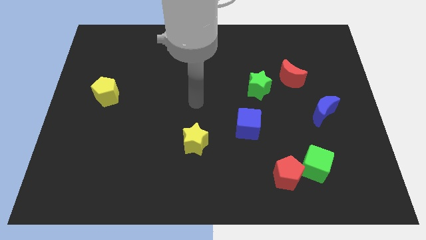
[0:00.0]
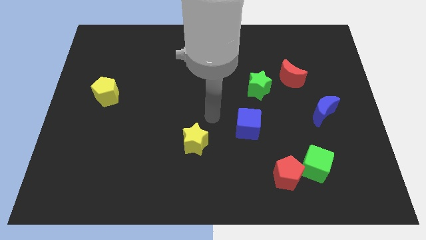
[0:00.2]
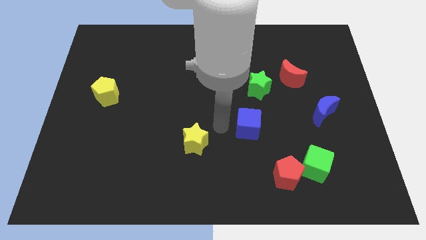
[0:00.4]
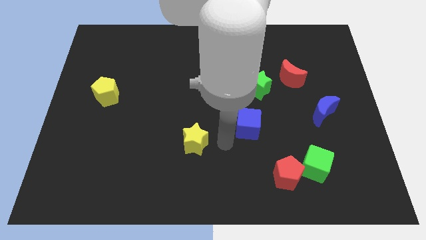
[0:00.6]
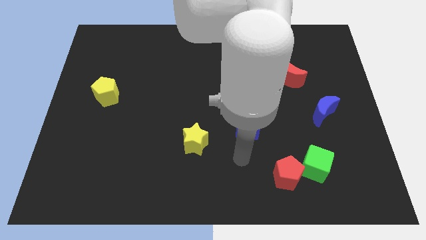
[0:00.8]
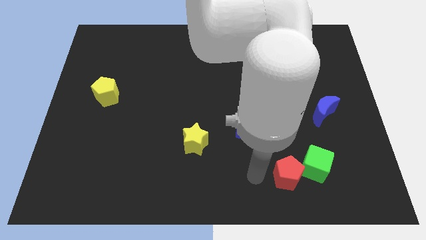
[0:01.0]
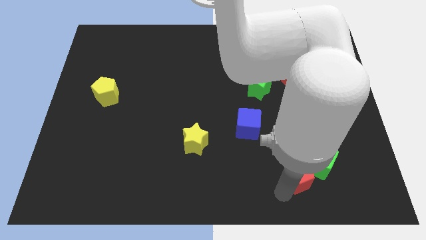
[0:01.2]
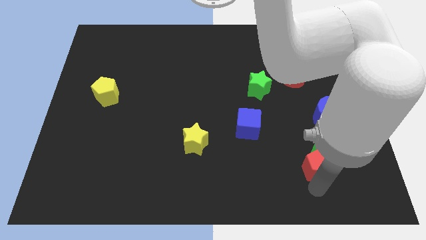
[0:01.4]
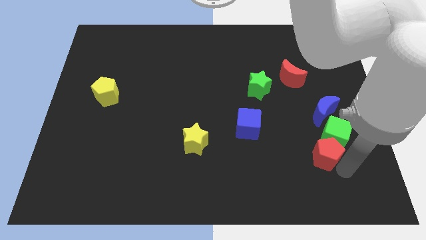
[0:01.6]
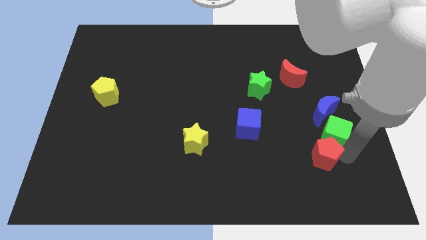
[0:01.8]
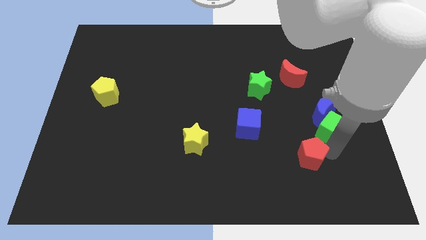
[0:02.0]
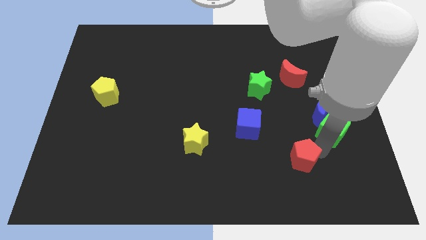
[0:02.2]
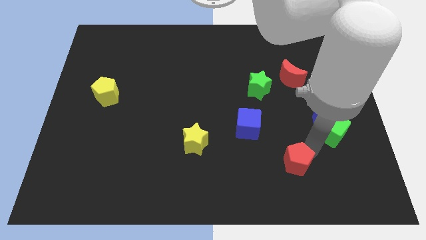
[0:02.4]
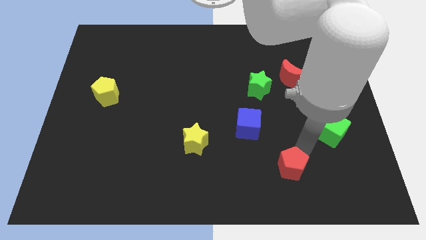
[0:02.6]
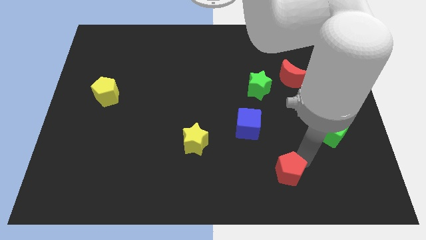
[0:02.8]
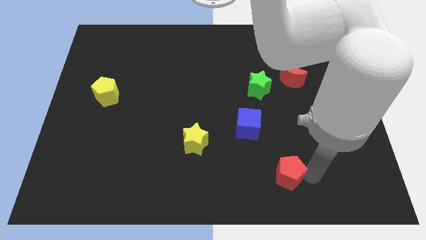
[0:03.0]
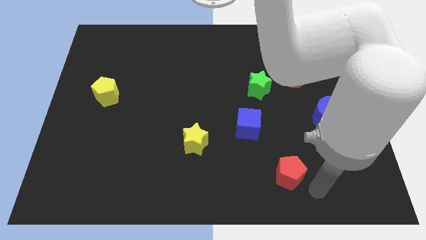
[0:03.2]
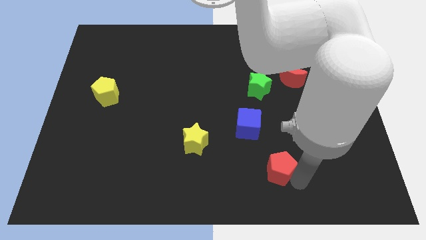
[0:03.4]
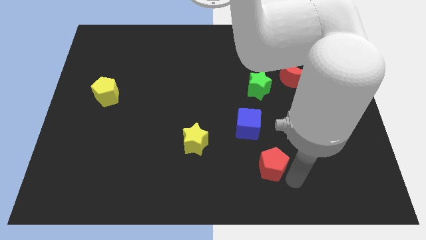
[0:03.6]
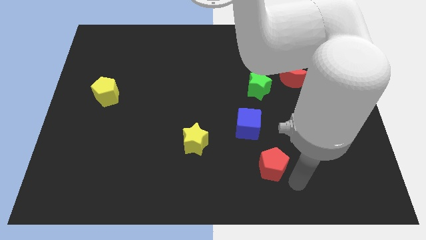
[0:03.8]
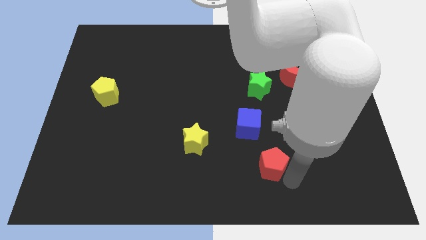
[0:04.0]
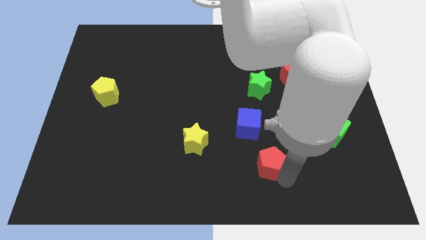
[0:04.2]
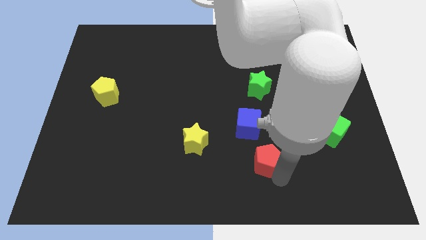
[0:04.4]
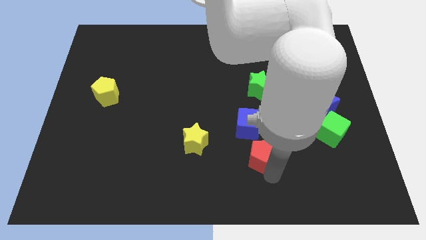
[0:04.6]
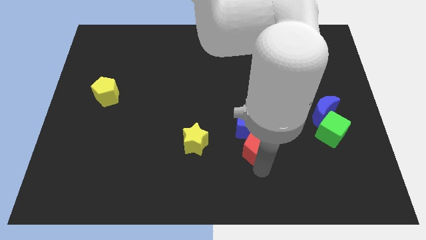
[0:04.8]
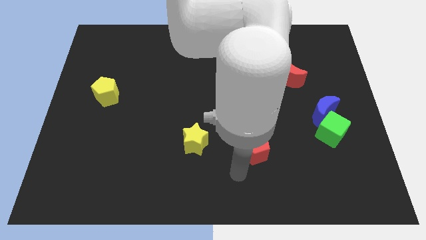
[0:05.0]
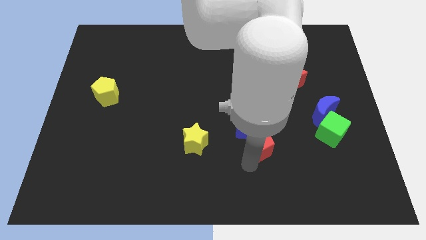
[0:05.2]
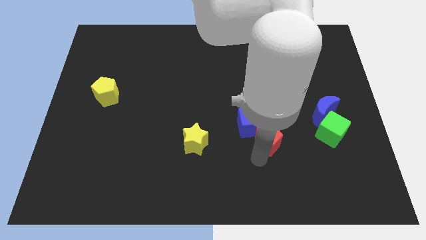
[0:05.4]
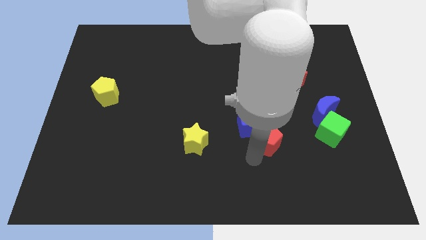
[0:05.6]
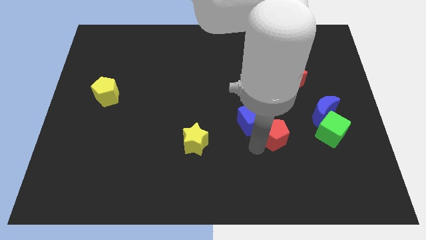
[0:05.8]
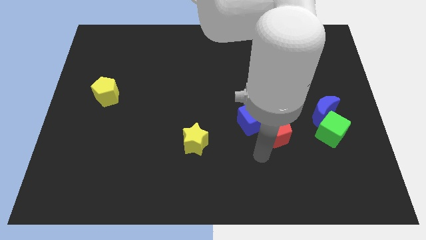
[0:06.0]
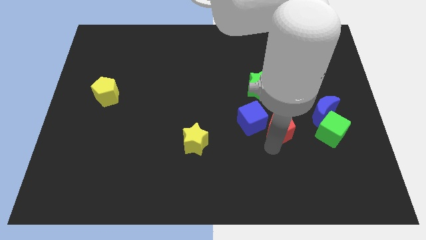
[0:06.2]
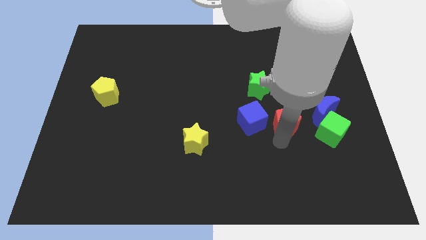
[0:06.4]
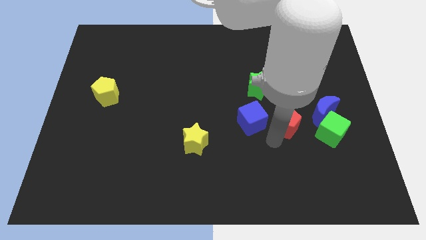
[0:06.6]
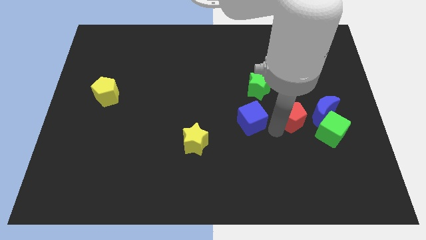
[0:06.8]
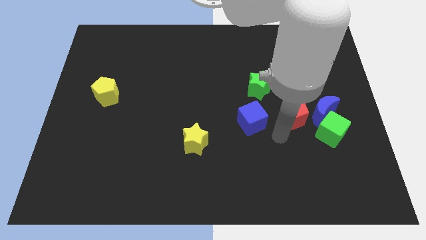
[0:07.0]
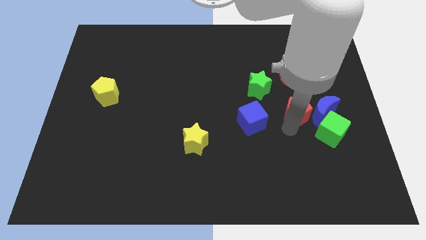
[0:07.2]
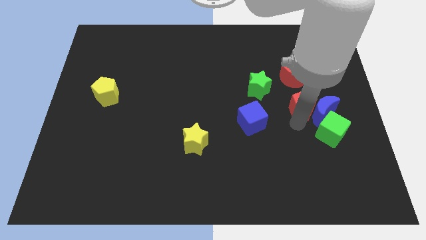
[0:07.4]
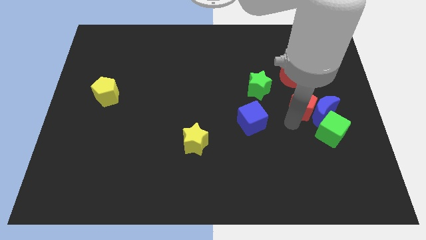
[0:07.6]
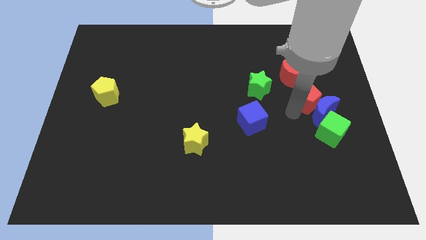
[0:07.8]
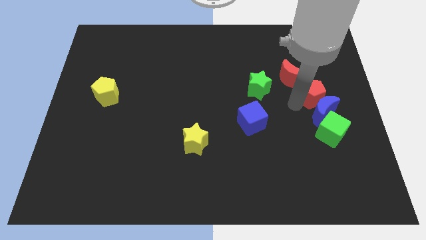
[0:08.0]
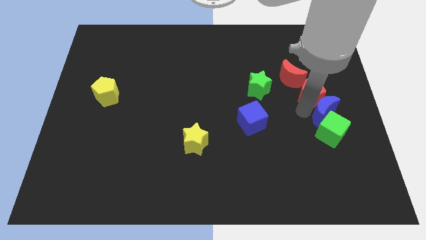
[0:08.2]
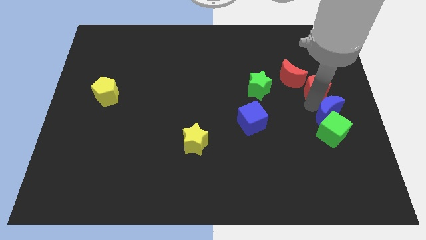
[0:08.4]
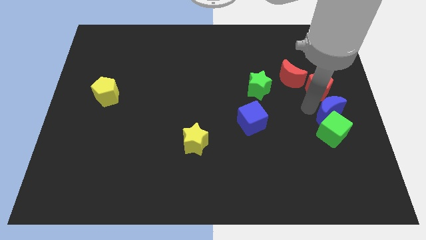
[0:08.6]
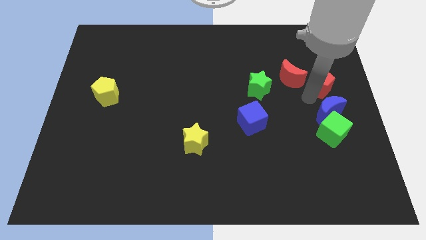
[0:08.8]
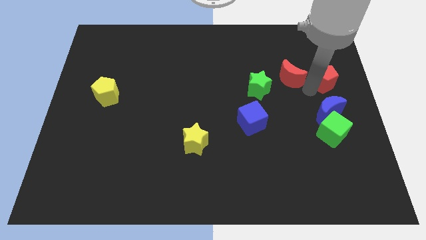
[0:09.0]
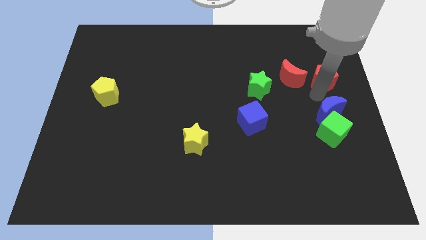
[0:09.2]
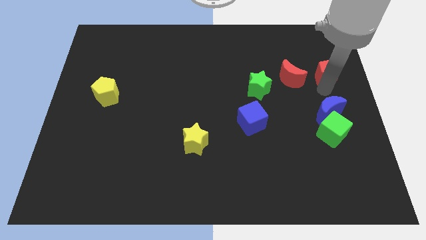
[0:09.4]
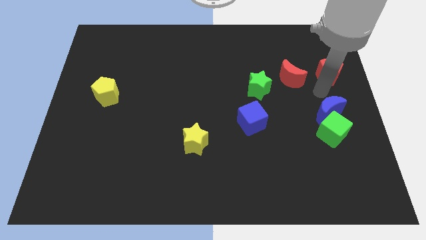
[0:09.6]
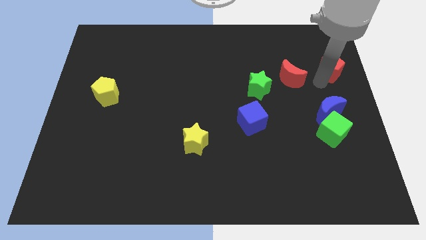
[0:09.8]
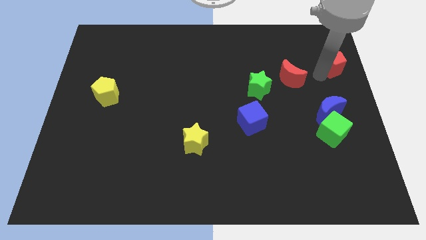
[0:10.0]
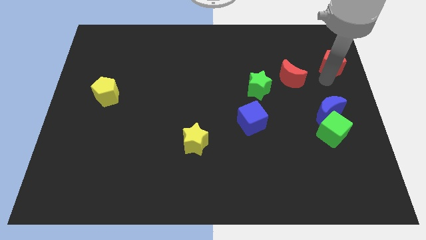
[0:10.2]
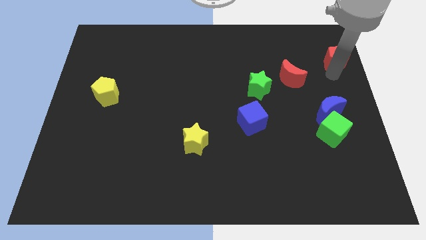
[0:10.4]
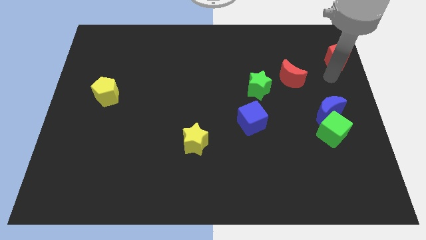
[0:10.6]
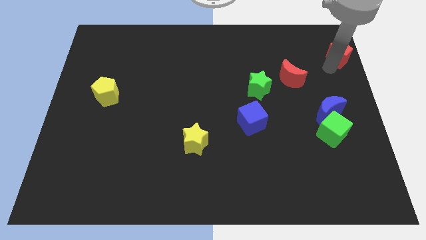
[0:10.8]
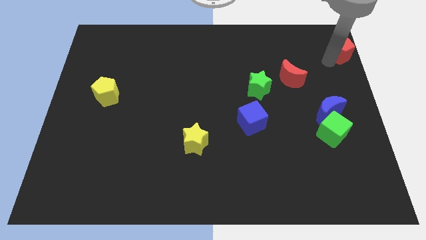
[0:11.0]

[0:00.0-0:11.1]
move the red pentagon to the top right

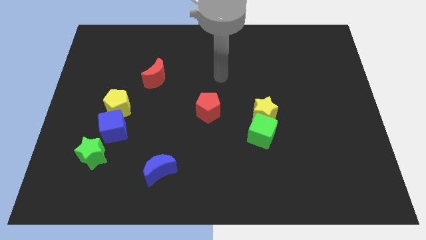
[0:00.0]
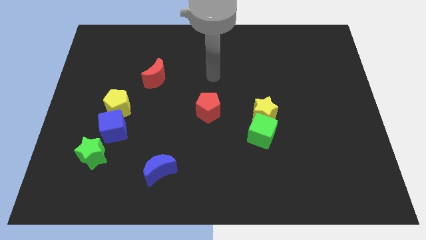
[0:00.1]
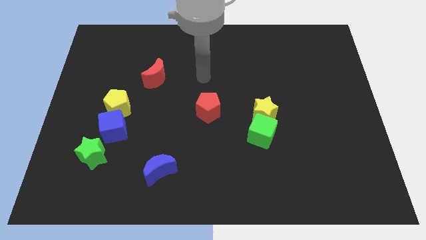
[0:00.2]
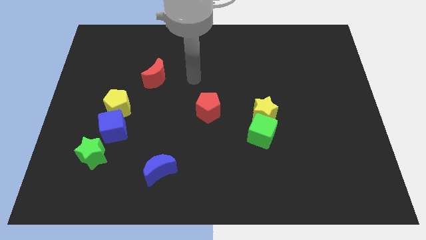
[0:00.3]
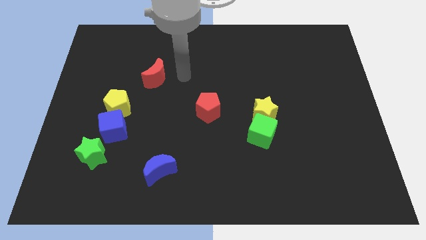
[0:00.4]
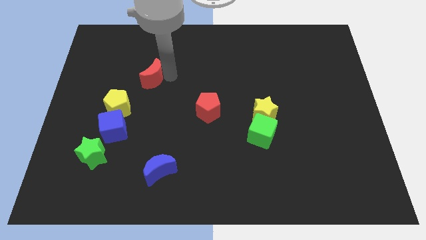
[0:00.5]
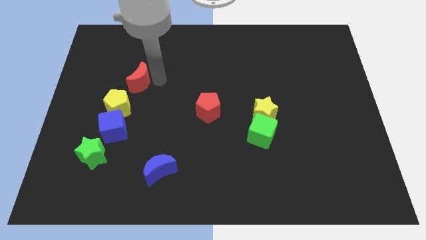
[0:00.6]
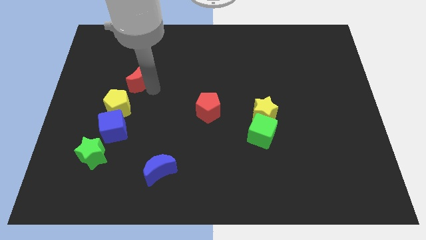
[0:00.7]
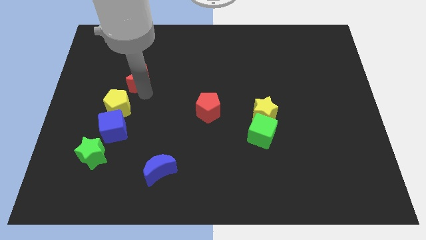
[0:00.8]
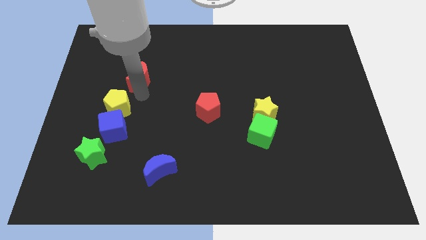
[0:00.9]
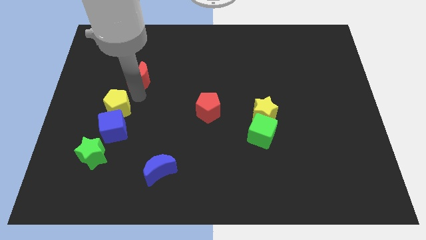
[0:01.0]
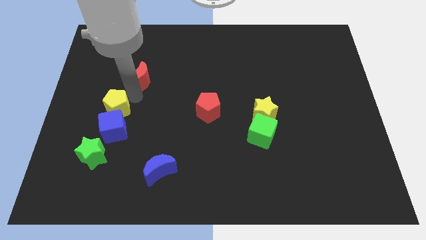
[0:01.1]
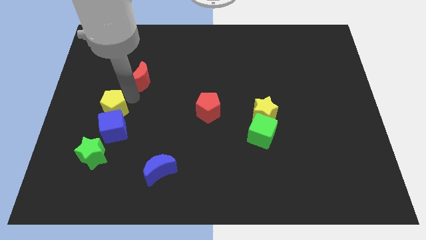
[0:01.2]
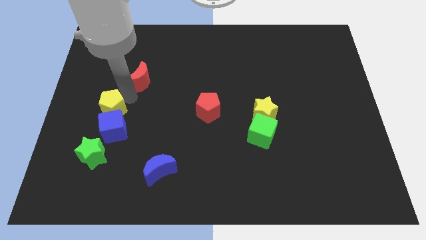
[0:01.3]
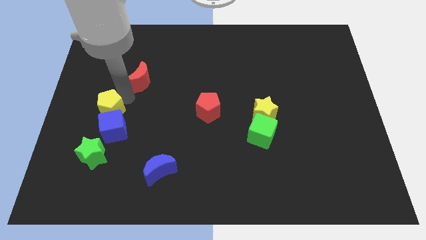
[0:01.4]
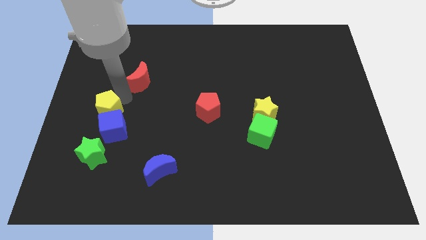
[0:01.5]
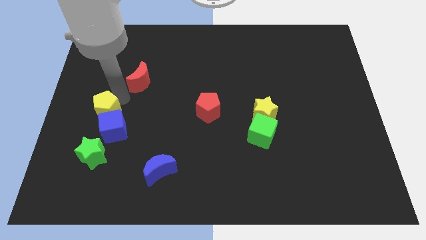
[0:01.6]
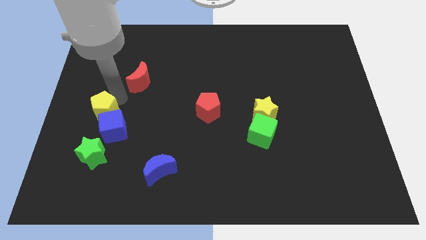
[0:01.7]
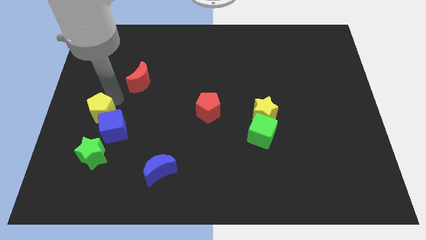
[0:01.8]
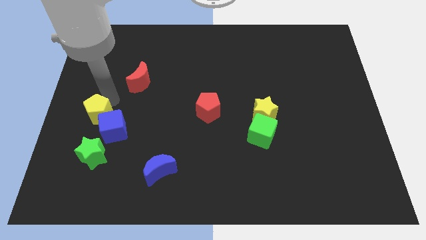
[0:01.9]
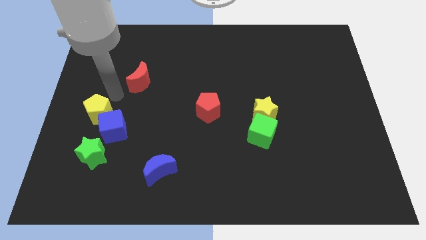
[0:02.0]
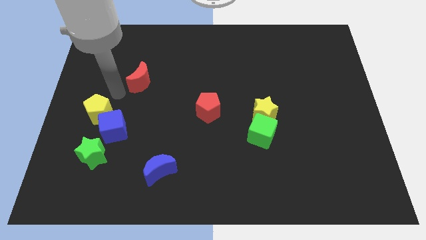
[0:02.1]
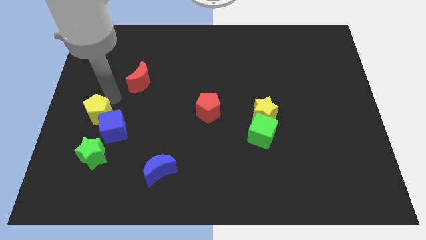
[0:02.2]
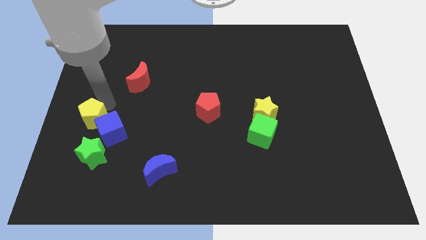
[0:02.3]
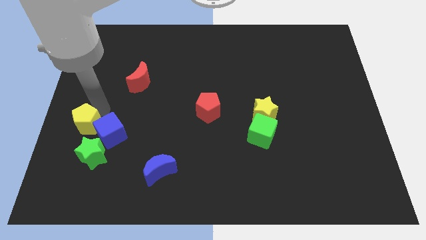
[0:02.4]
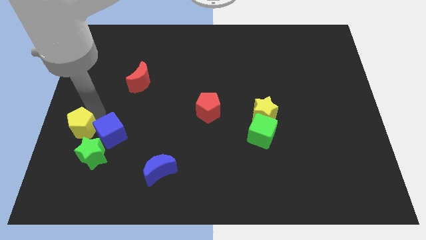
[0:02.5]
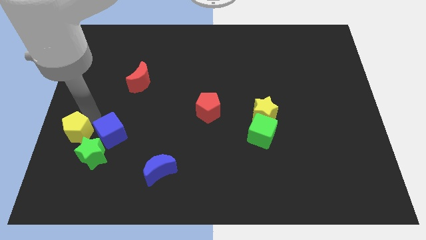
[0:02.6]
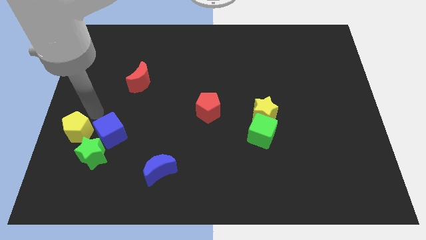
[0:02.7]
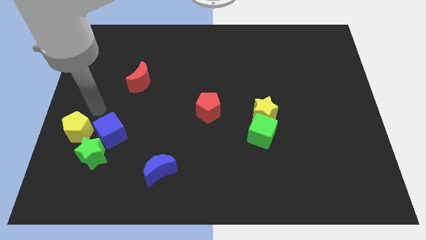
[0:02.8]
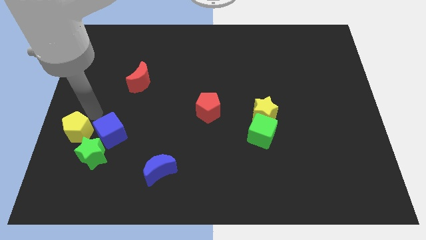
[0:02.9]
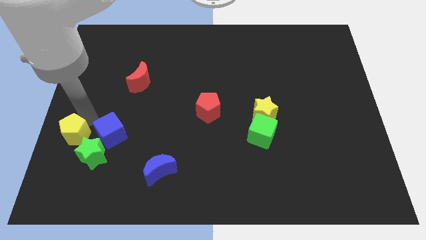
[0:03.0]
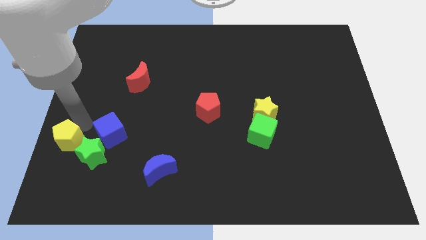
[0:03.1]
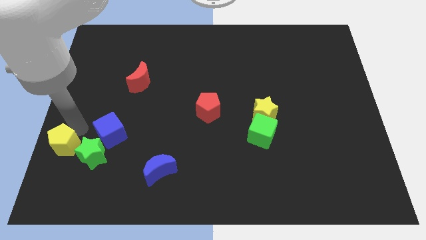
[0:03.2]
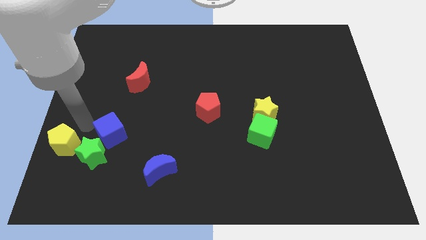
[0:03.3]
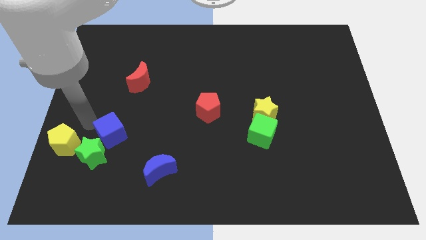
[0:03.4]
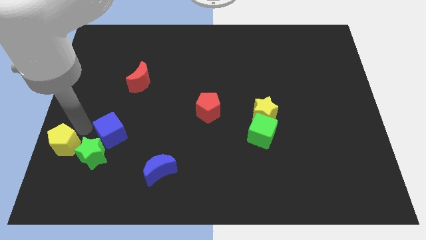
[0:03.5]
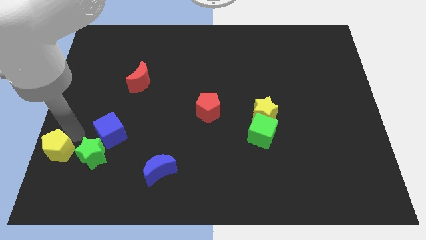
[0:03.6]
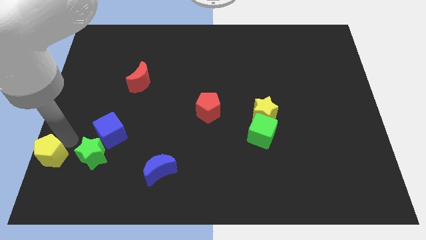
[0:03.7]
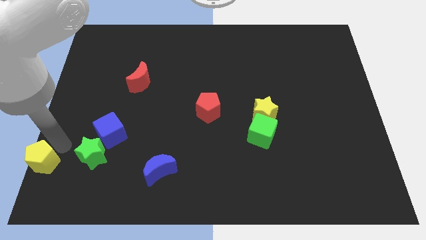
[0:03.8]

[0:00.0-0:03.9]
move the yellow pentagon to the lower left corner
